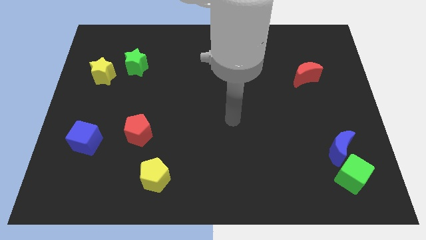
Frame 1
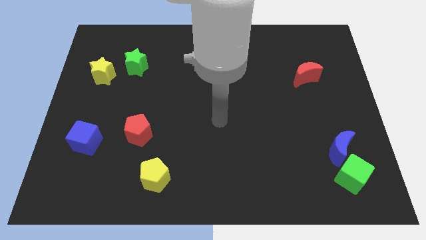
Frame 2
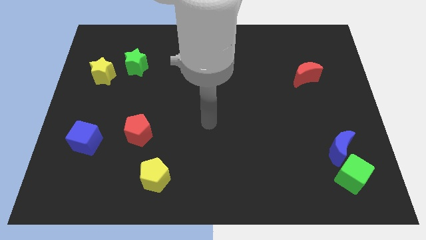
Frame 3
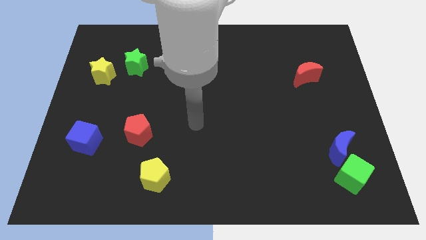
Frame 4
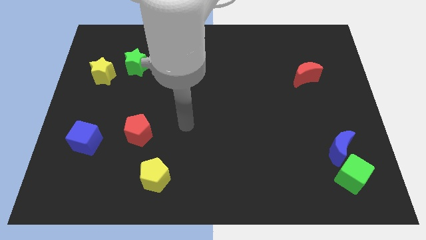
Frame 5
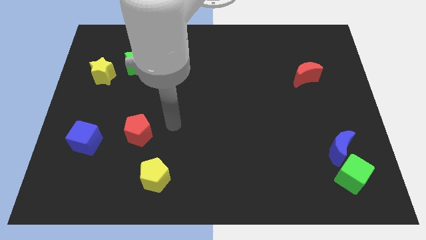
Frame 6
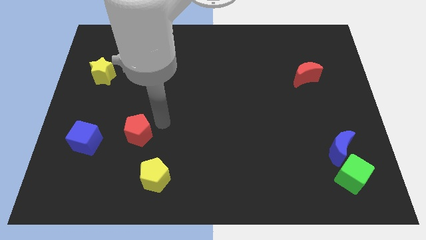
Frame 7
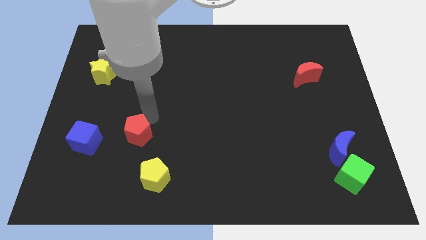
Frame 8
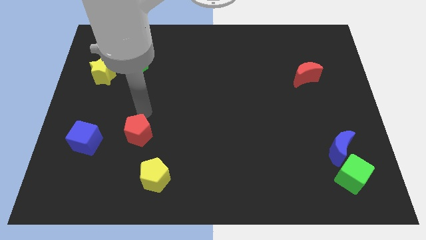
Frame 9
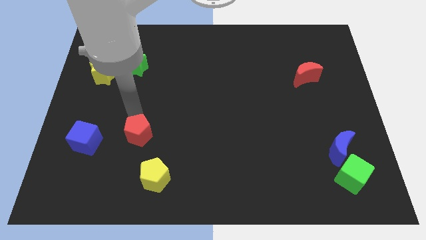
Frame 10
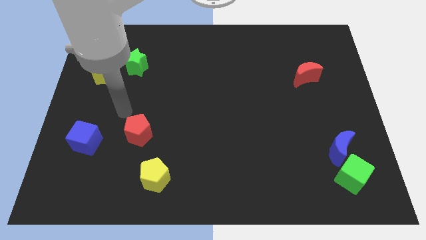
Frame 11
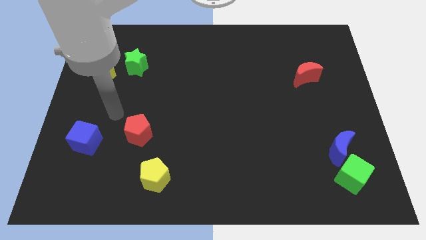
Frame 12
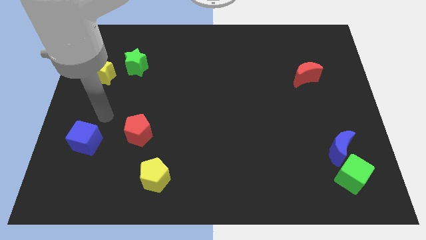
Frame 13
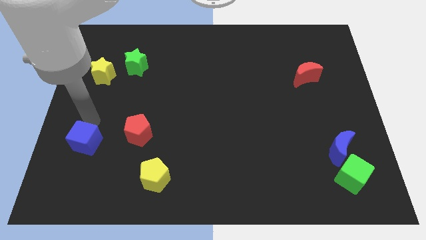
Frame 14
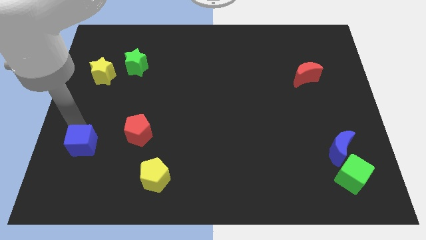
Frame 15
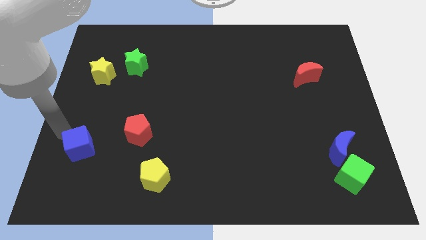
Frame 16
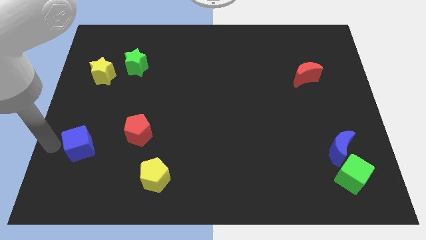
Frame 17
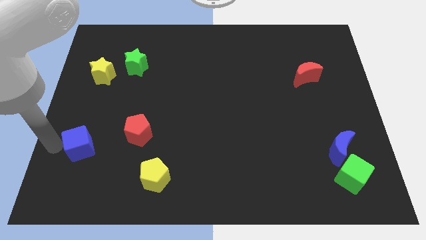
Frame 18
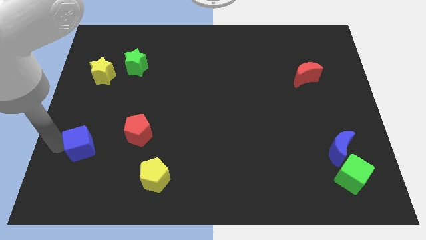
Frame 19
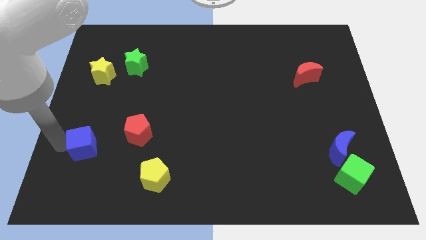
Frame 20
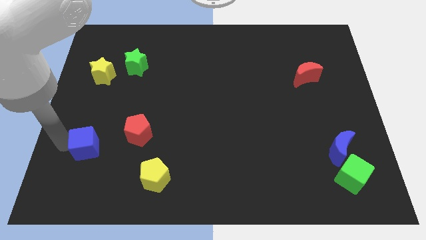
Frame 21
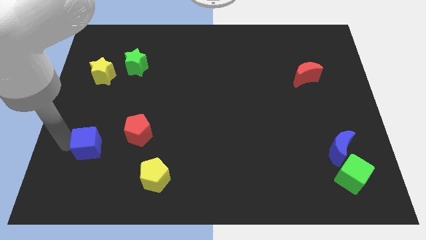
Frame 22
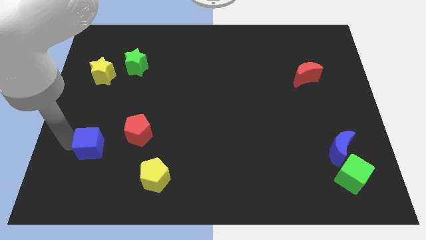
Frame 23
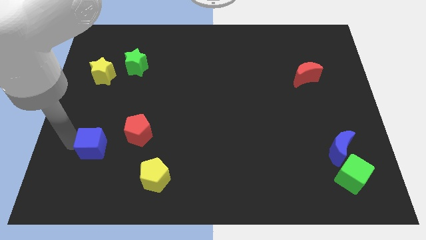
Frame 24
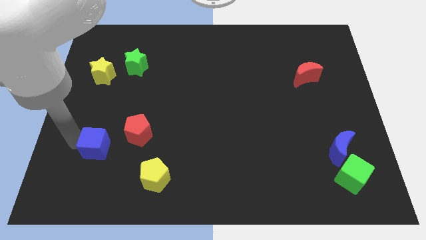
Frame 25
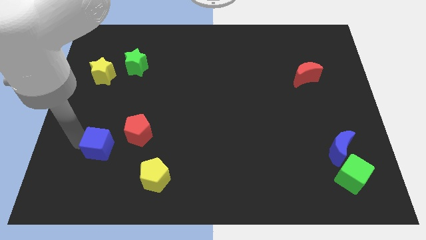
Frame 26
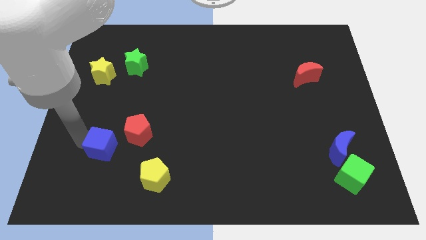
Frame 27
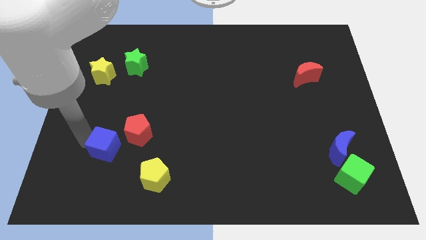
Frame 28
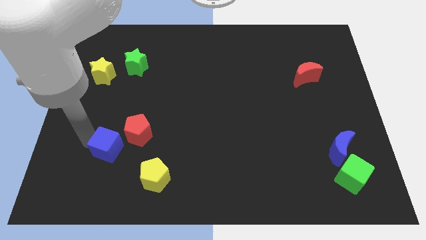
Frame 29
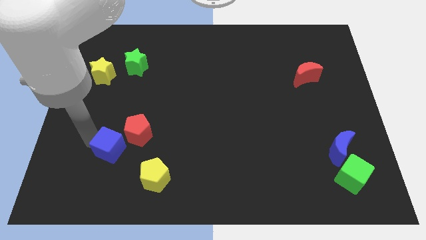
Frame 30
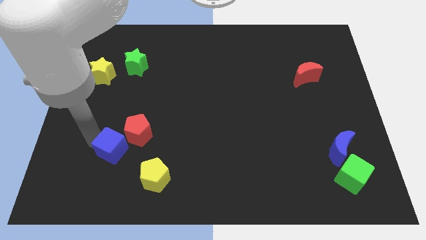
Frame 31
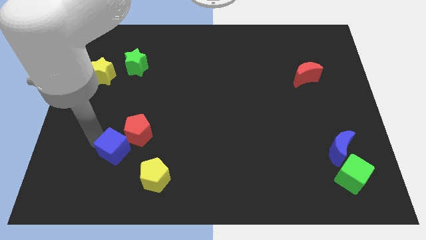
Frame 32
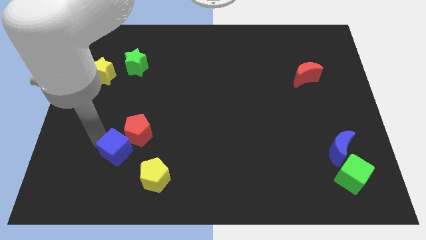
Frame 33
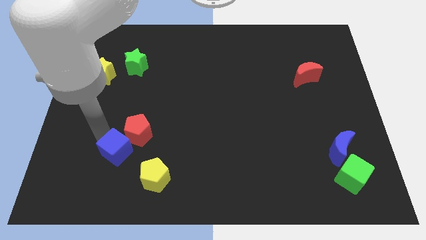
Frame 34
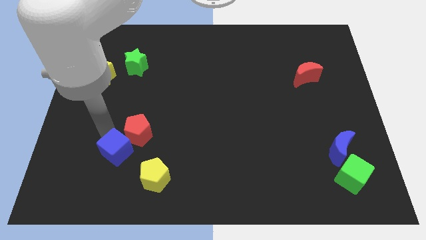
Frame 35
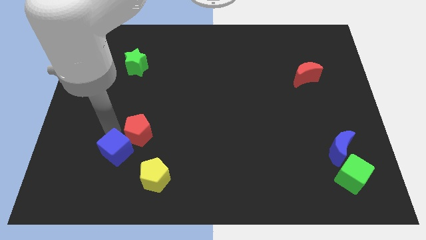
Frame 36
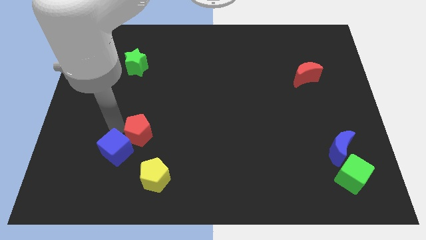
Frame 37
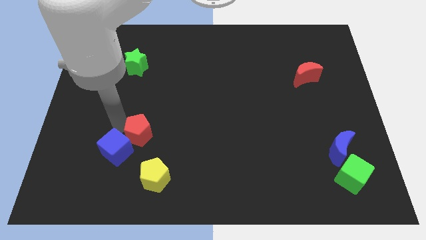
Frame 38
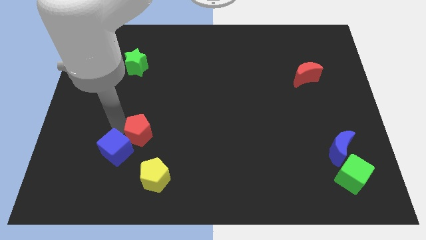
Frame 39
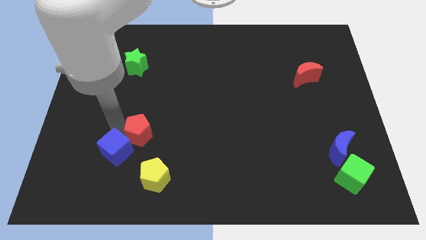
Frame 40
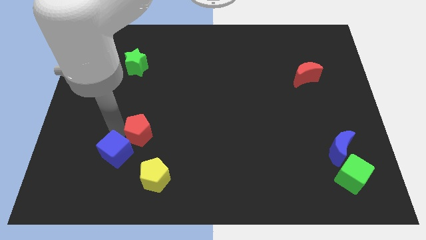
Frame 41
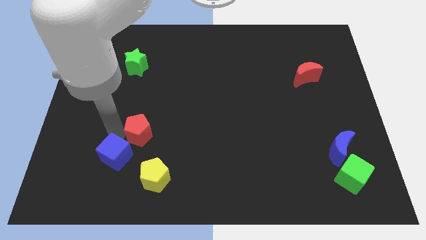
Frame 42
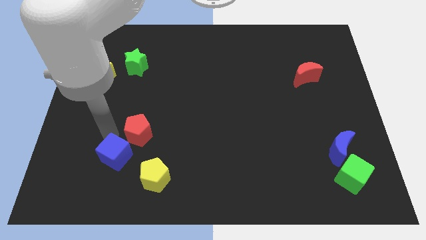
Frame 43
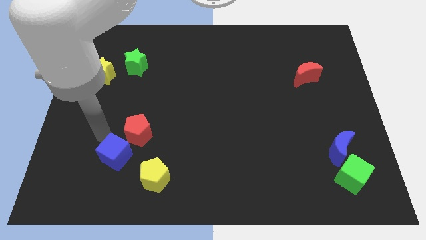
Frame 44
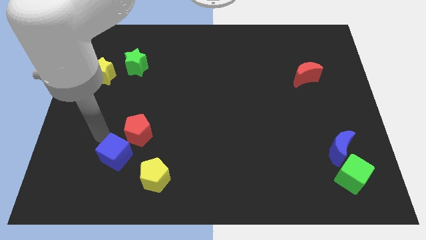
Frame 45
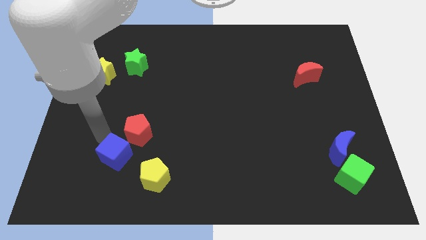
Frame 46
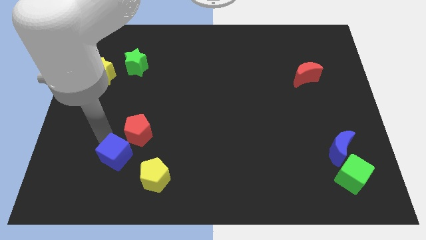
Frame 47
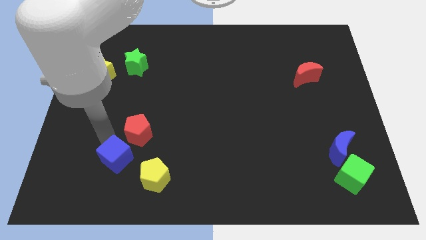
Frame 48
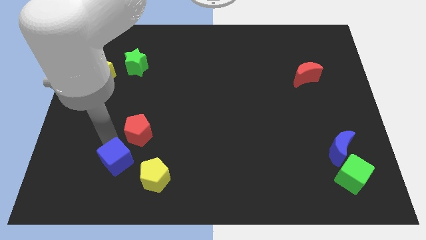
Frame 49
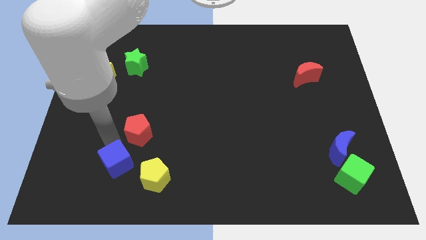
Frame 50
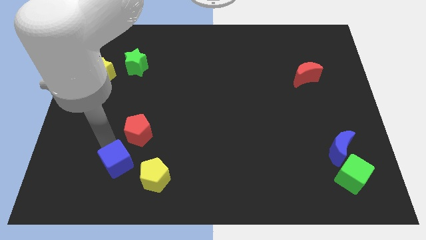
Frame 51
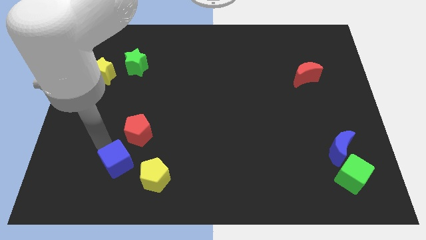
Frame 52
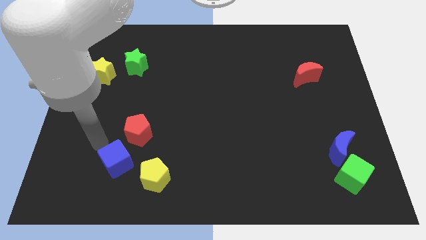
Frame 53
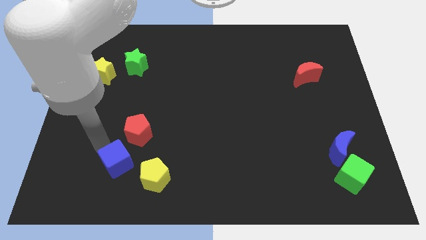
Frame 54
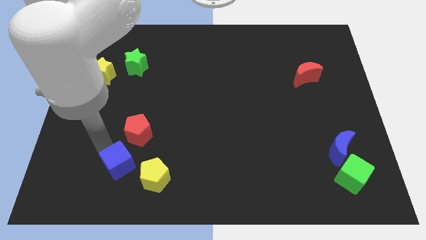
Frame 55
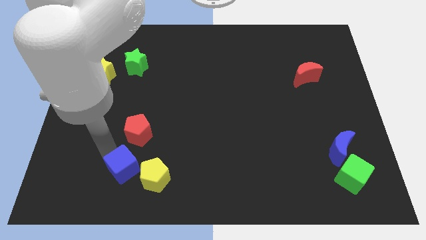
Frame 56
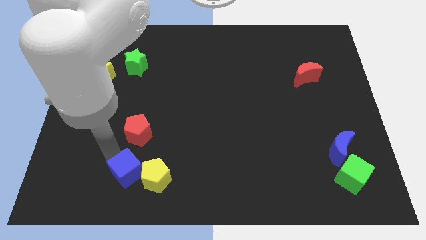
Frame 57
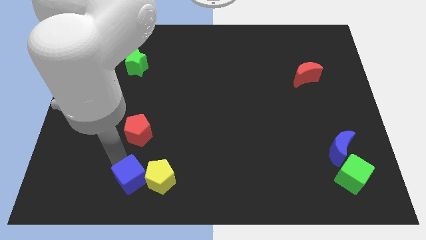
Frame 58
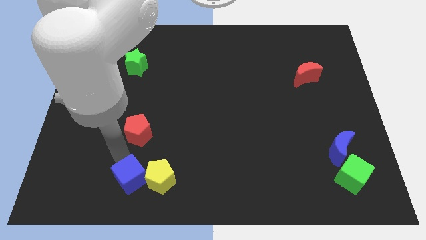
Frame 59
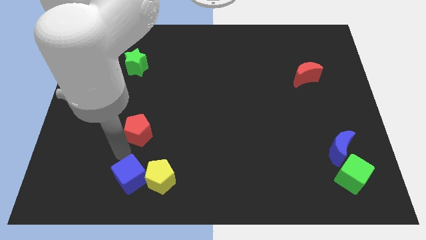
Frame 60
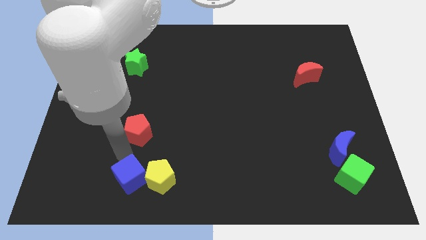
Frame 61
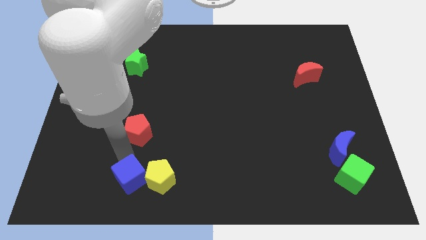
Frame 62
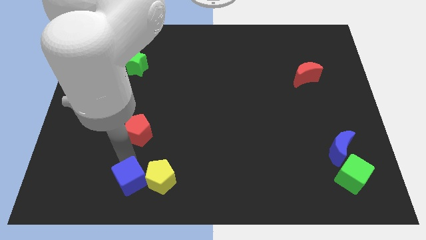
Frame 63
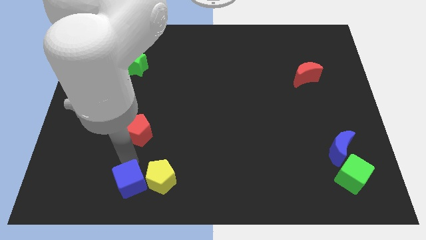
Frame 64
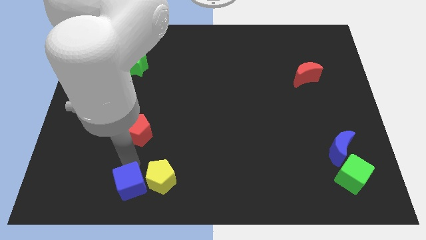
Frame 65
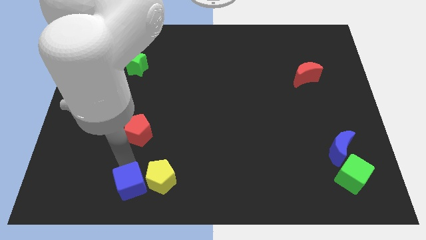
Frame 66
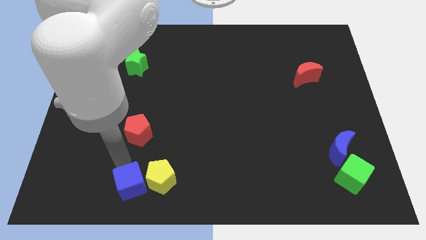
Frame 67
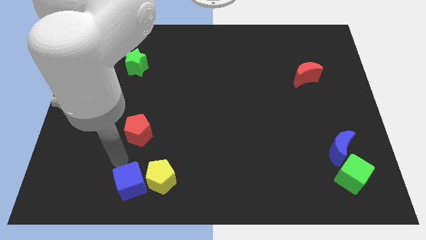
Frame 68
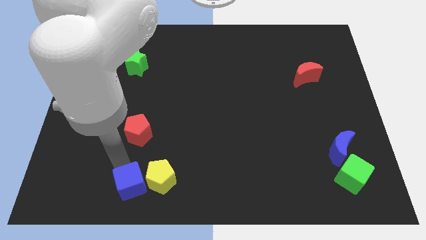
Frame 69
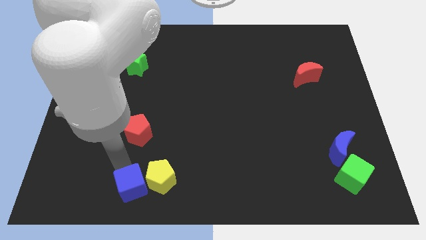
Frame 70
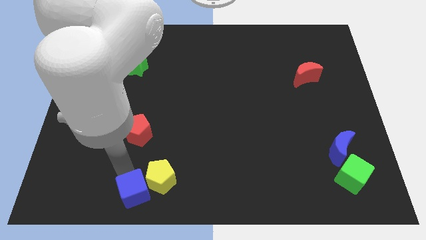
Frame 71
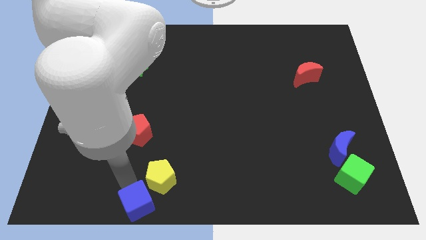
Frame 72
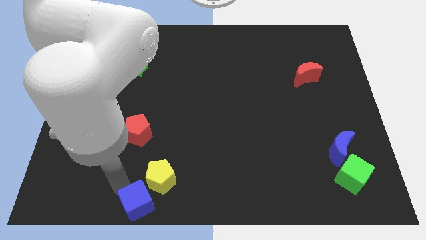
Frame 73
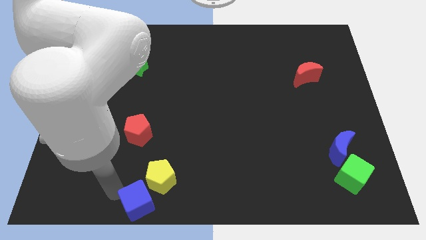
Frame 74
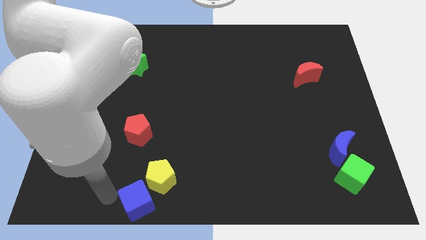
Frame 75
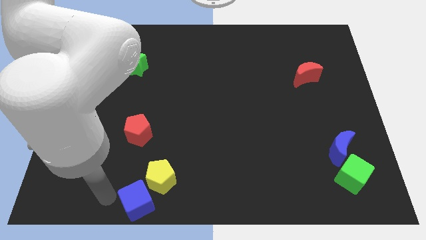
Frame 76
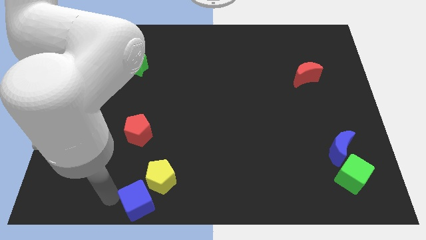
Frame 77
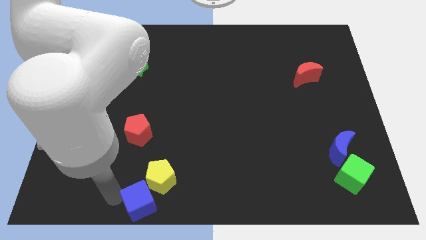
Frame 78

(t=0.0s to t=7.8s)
move the blue cube to the bottom side
